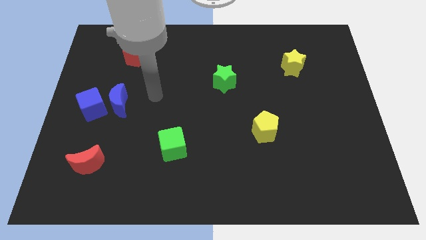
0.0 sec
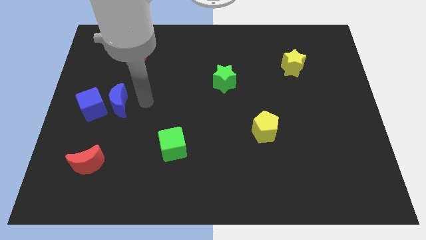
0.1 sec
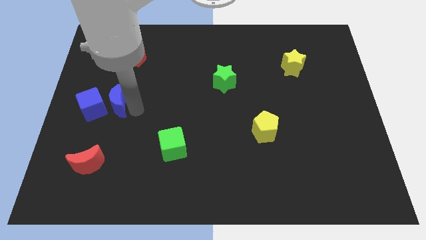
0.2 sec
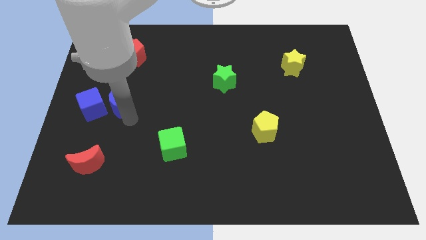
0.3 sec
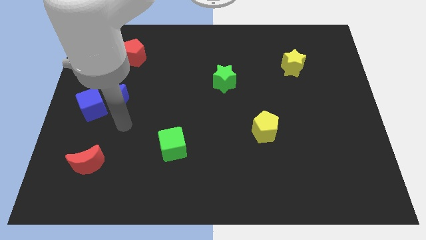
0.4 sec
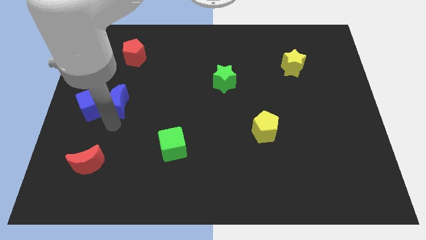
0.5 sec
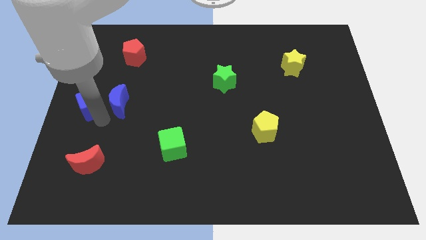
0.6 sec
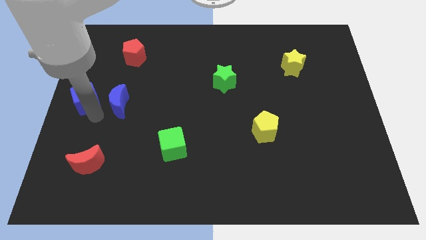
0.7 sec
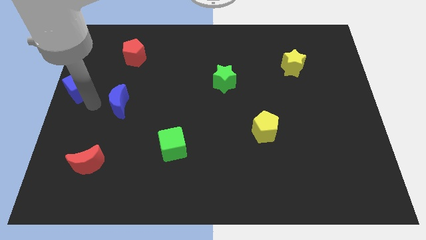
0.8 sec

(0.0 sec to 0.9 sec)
separate the blue moon from the blue cube

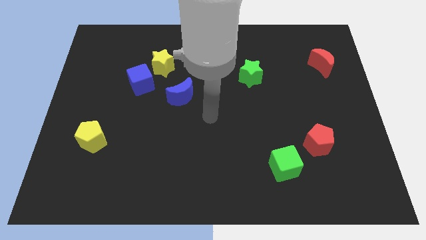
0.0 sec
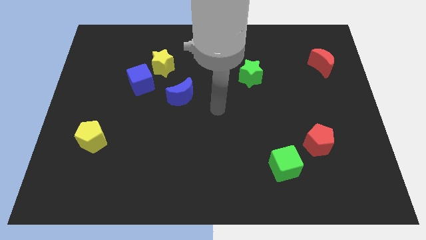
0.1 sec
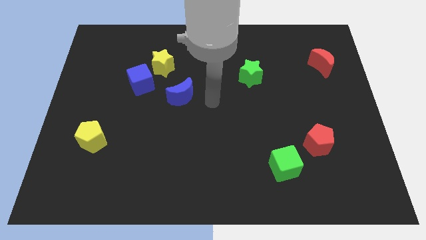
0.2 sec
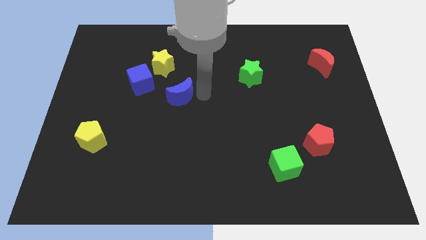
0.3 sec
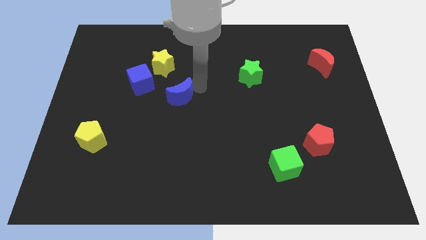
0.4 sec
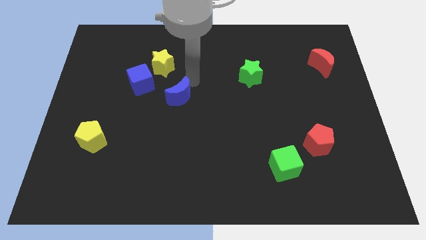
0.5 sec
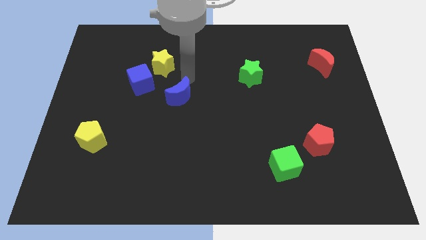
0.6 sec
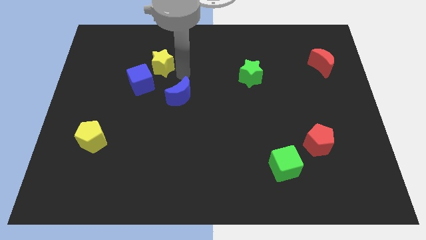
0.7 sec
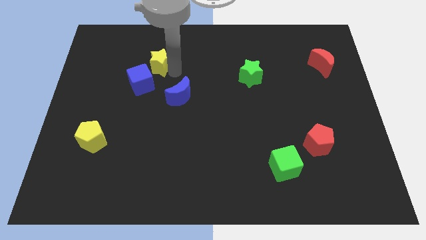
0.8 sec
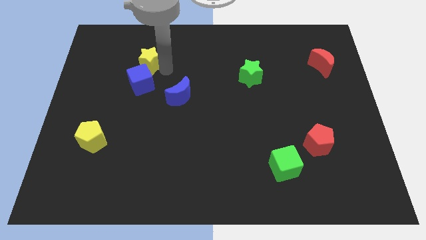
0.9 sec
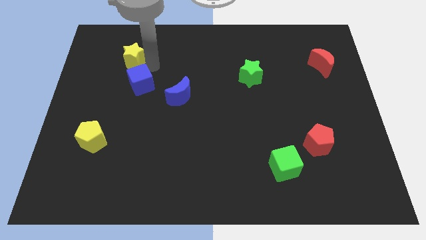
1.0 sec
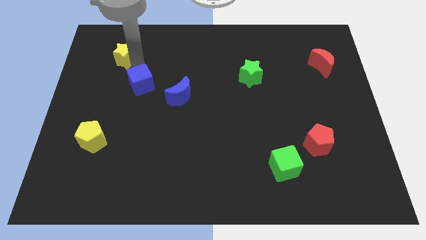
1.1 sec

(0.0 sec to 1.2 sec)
separate the blue cube from the yellow star

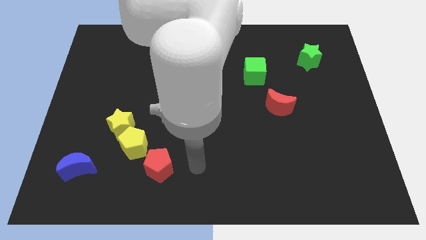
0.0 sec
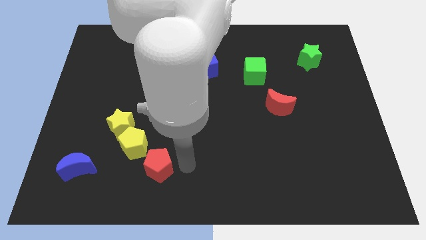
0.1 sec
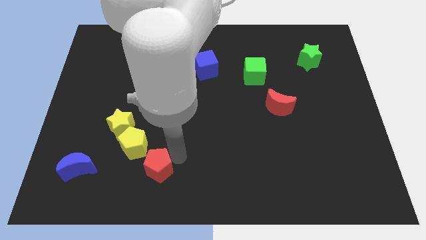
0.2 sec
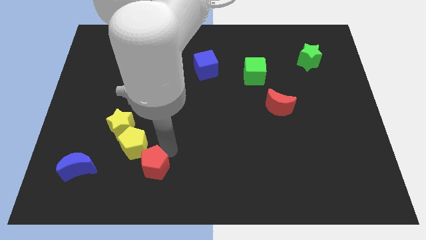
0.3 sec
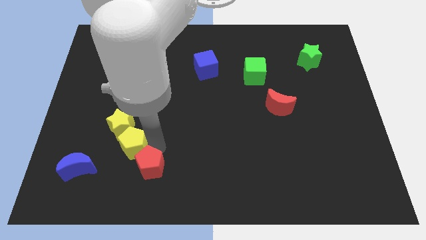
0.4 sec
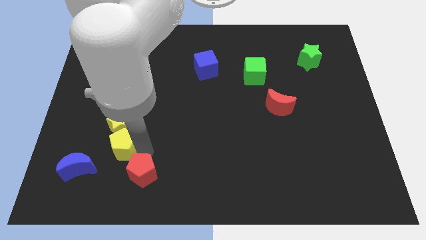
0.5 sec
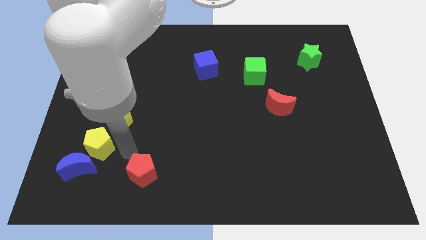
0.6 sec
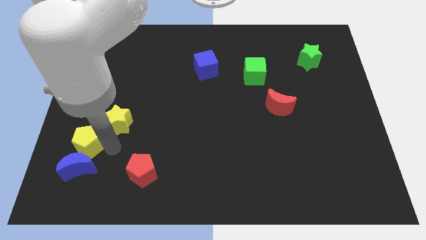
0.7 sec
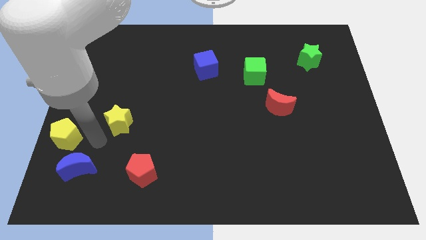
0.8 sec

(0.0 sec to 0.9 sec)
pull the yellow star apart from the yellow pentagon

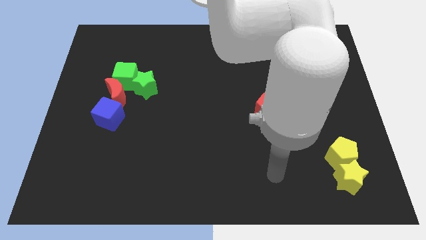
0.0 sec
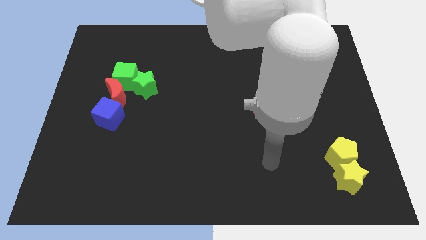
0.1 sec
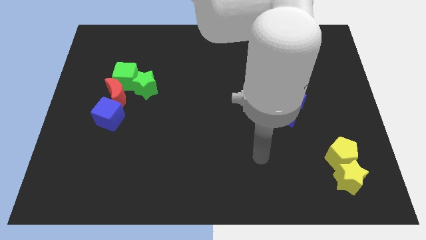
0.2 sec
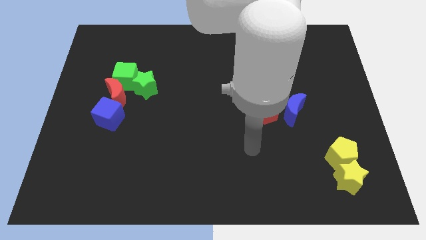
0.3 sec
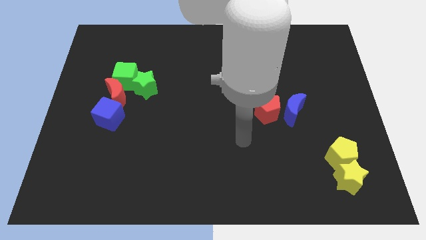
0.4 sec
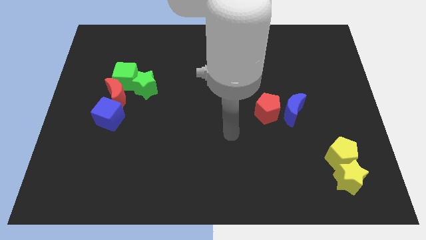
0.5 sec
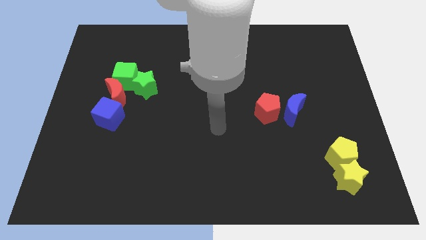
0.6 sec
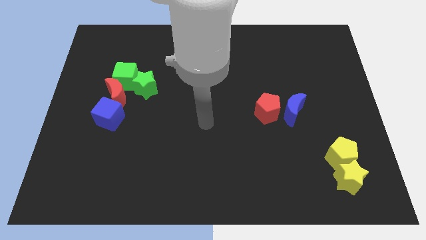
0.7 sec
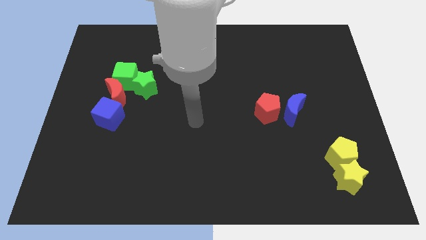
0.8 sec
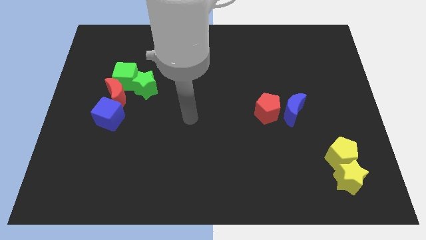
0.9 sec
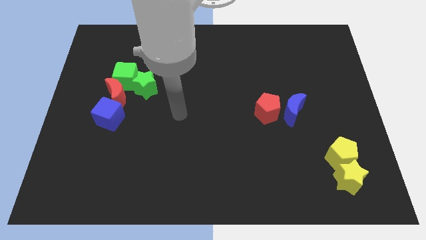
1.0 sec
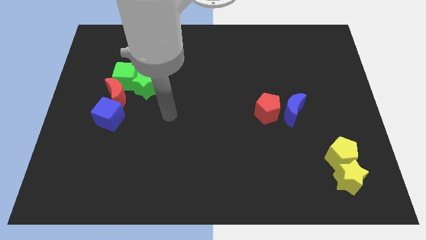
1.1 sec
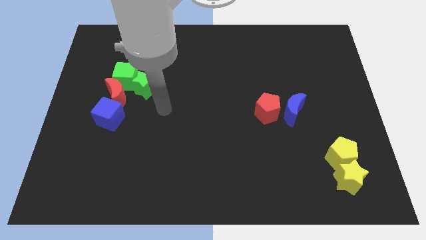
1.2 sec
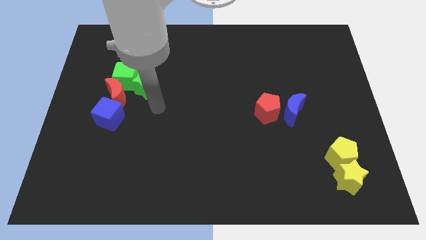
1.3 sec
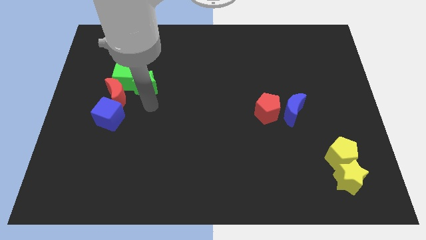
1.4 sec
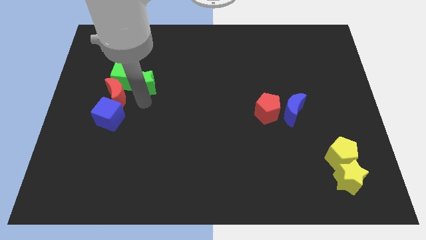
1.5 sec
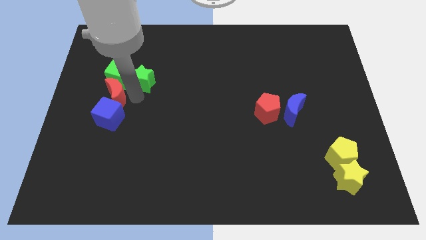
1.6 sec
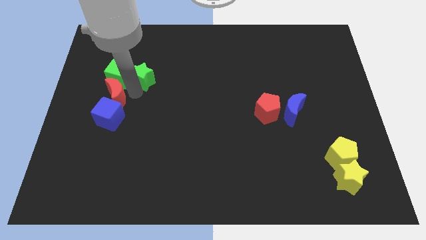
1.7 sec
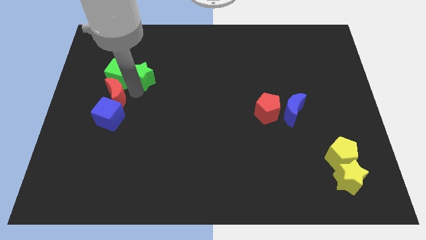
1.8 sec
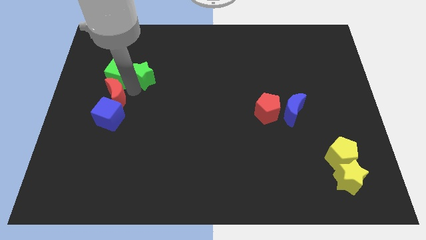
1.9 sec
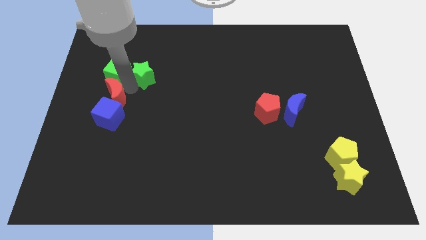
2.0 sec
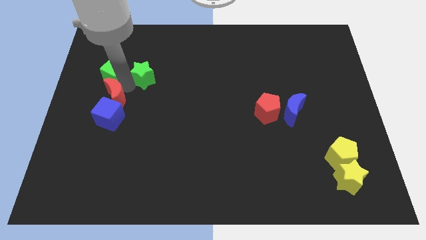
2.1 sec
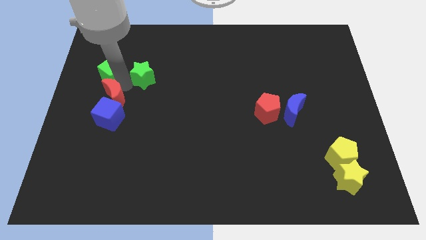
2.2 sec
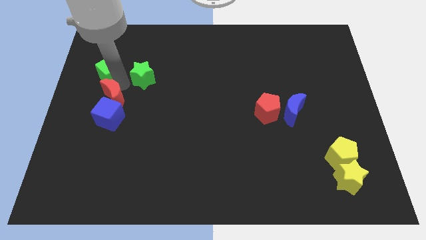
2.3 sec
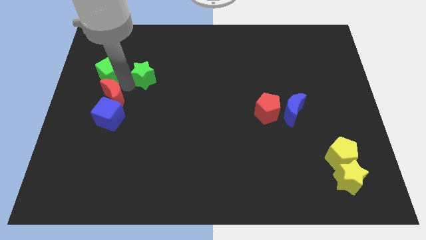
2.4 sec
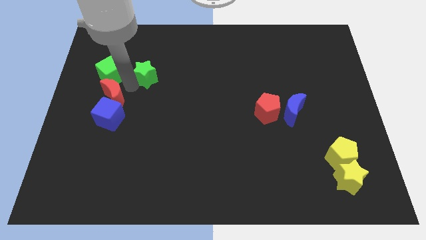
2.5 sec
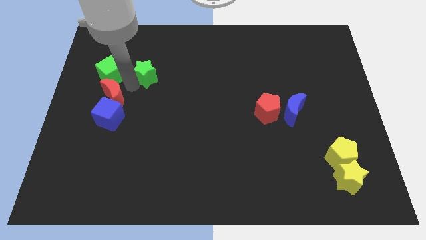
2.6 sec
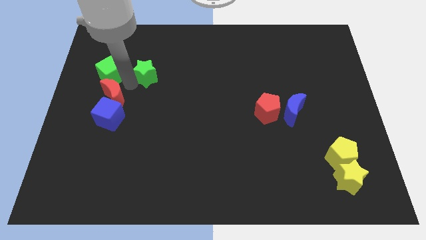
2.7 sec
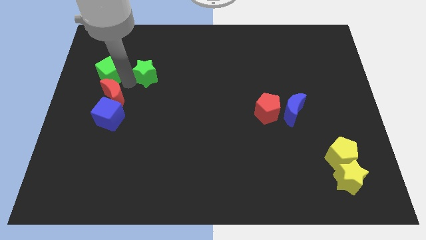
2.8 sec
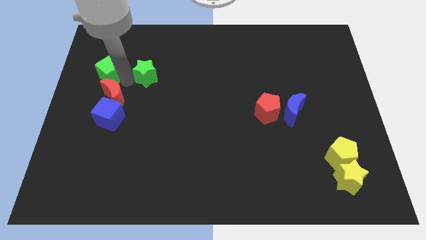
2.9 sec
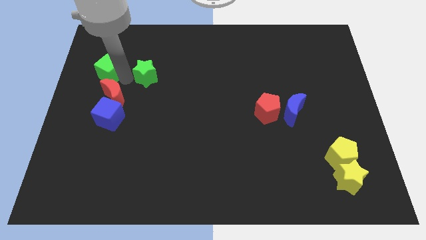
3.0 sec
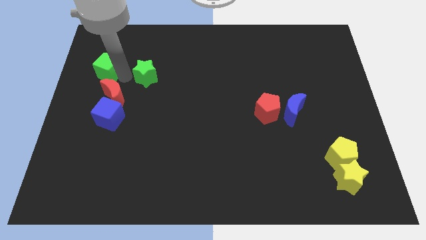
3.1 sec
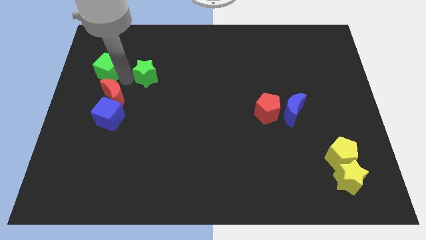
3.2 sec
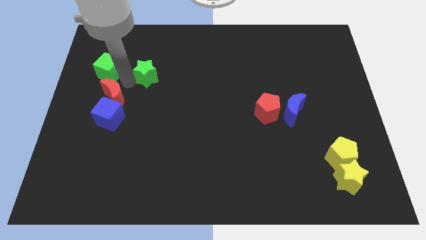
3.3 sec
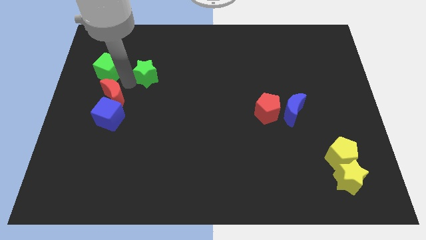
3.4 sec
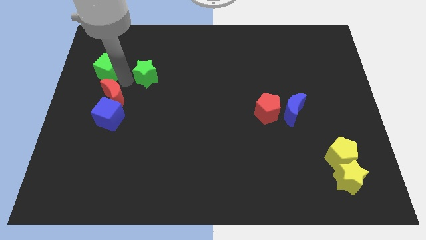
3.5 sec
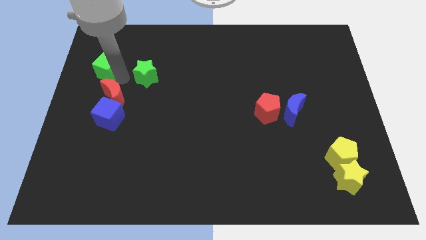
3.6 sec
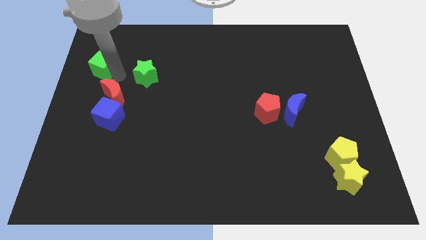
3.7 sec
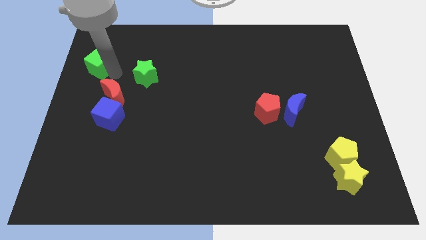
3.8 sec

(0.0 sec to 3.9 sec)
separate the green cube from the red moon and green star

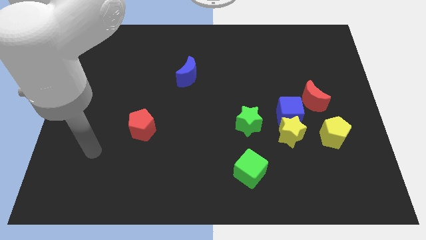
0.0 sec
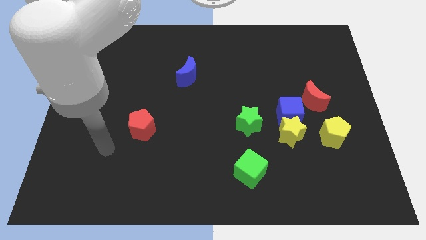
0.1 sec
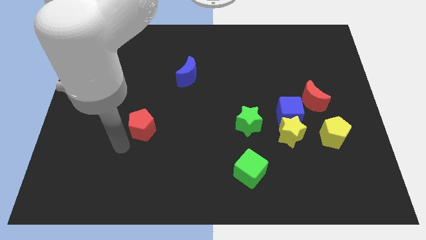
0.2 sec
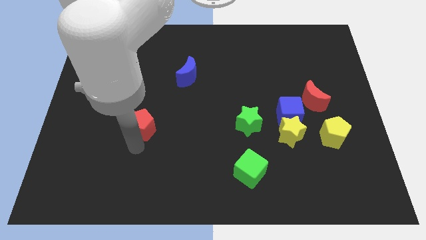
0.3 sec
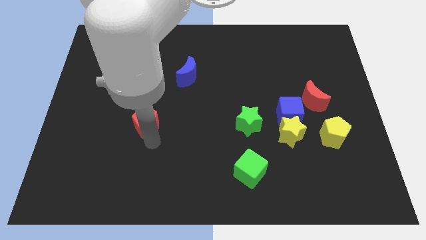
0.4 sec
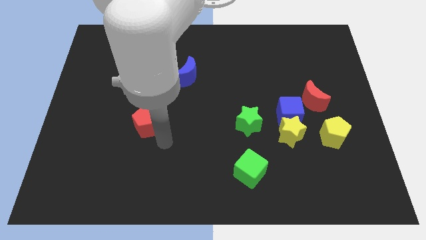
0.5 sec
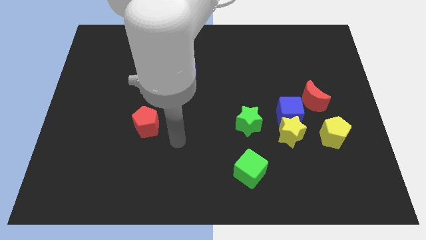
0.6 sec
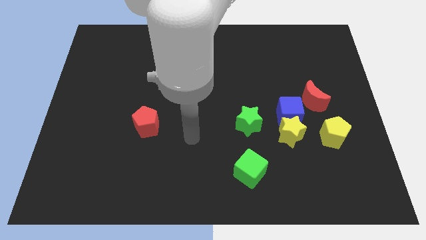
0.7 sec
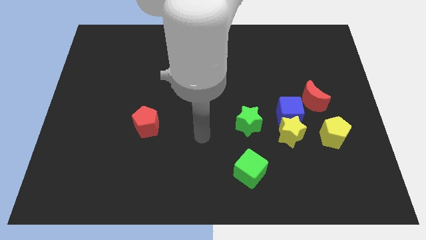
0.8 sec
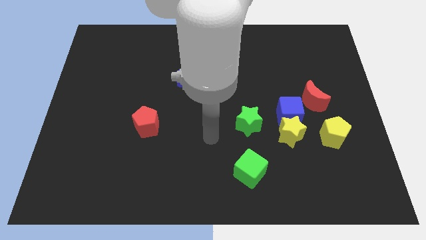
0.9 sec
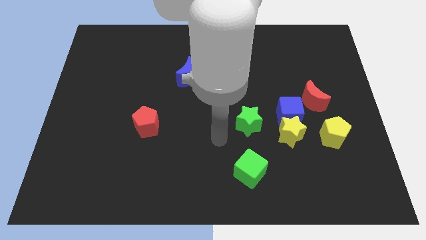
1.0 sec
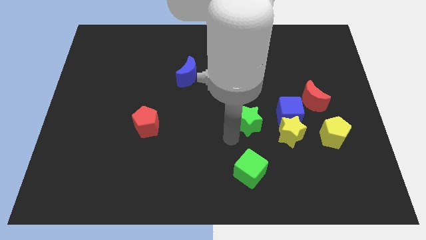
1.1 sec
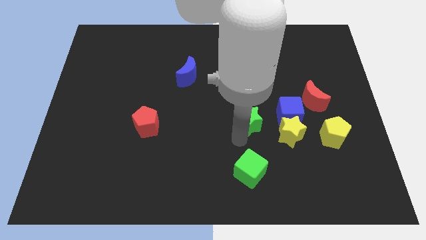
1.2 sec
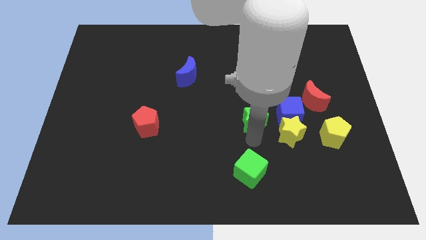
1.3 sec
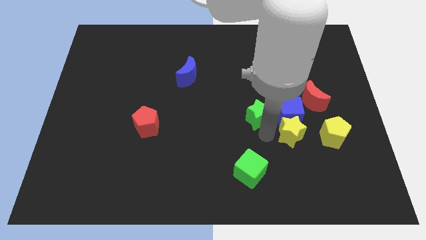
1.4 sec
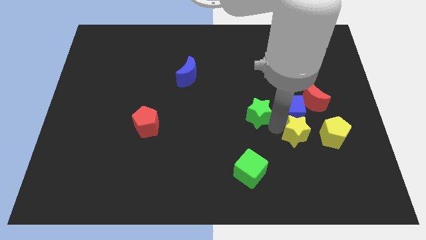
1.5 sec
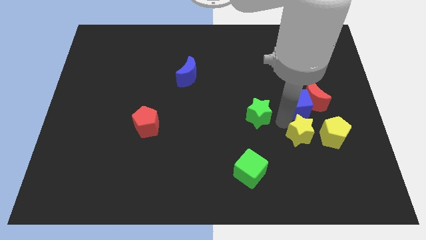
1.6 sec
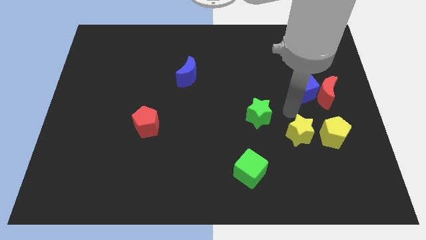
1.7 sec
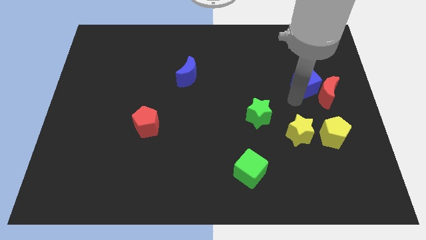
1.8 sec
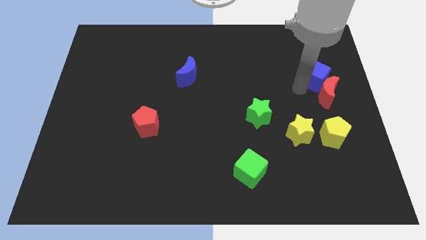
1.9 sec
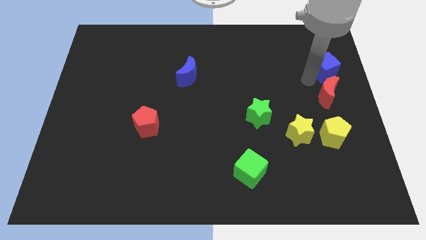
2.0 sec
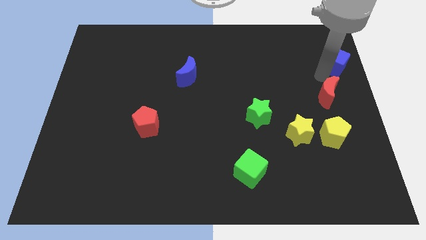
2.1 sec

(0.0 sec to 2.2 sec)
separate the red moon from the blue cube

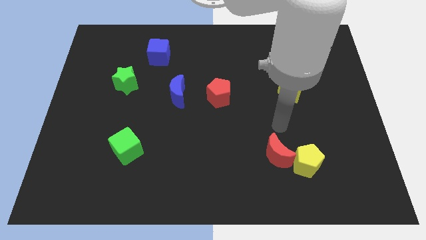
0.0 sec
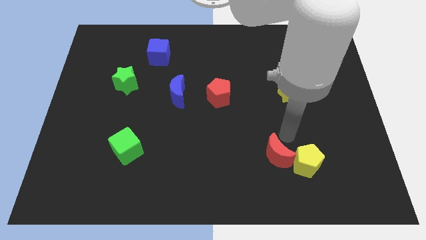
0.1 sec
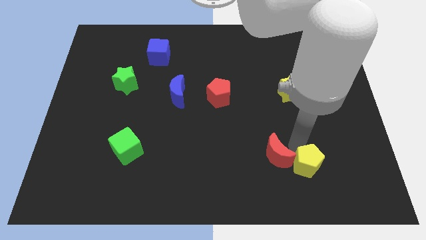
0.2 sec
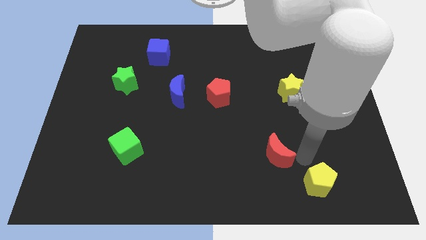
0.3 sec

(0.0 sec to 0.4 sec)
separate the red moon from the yellow pentagon
